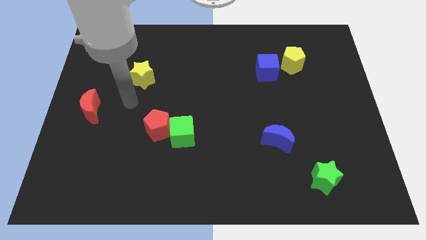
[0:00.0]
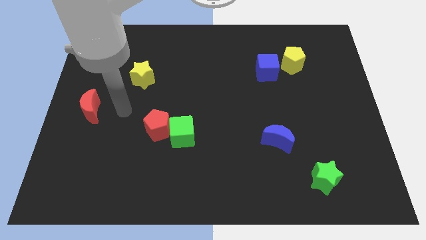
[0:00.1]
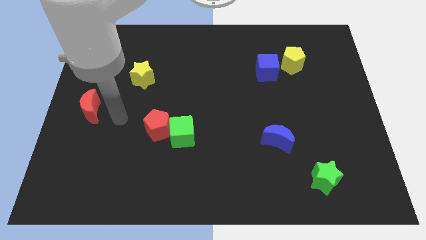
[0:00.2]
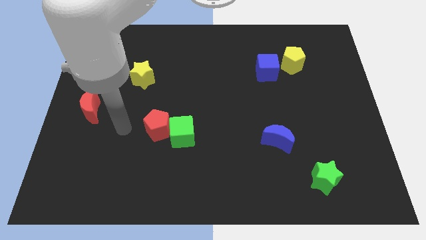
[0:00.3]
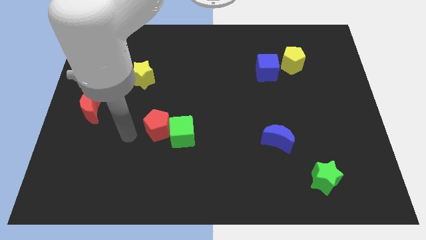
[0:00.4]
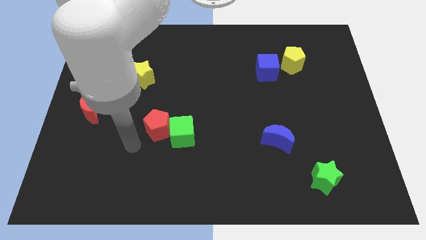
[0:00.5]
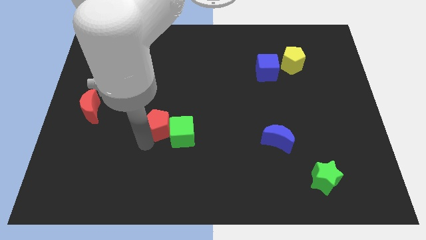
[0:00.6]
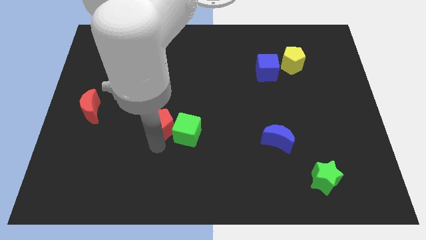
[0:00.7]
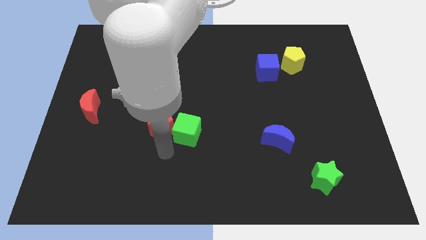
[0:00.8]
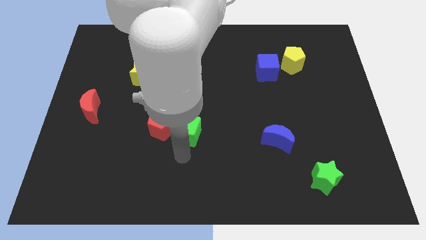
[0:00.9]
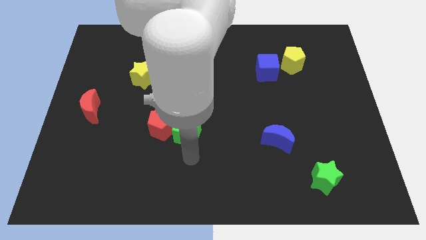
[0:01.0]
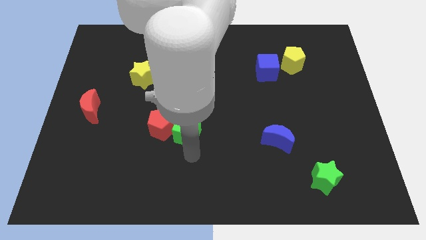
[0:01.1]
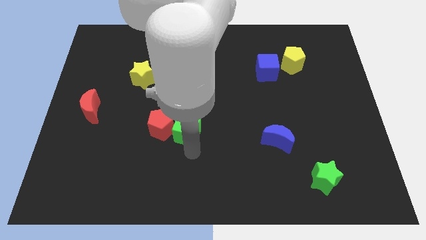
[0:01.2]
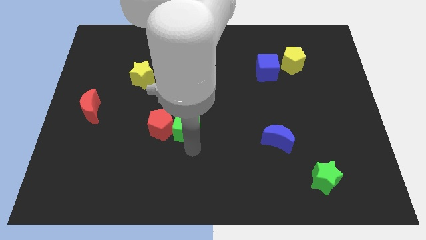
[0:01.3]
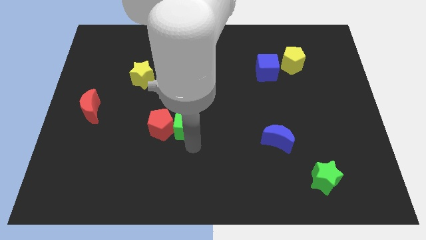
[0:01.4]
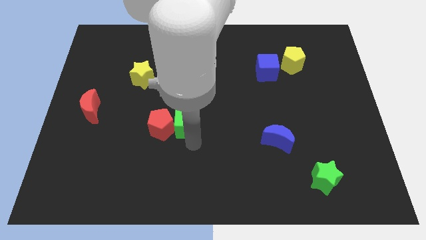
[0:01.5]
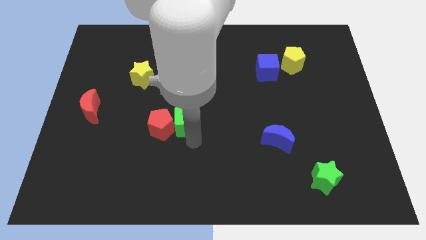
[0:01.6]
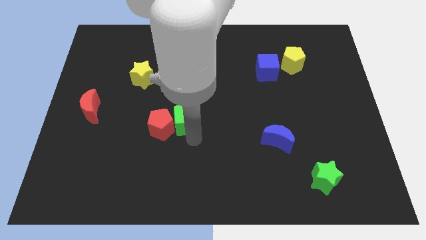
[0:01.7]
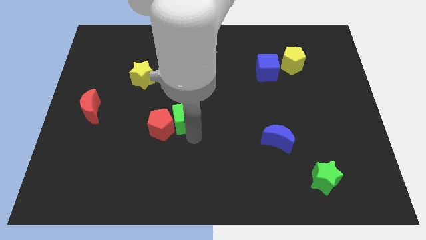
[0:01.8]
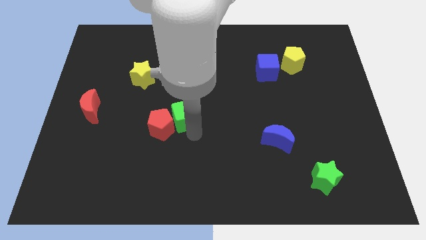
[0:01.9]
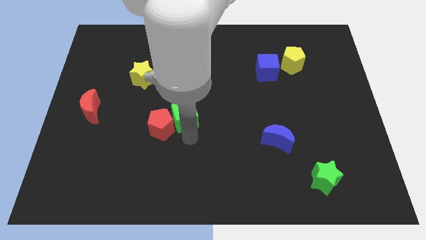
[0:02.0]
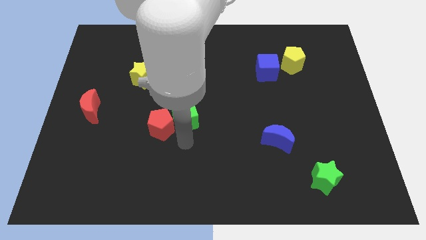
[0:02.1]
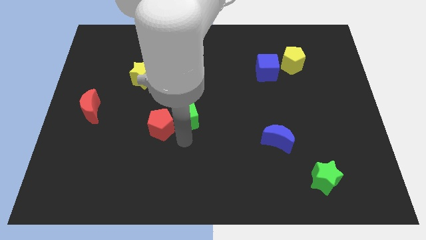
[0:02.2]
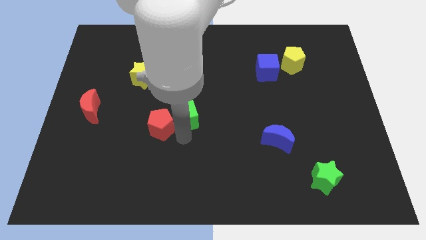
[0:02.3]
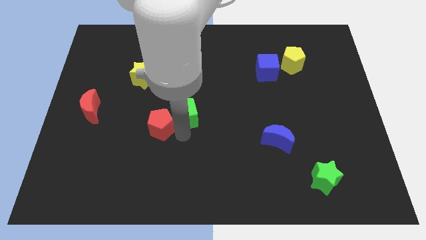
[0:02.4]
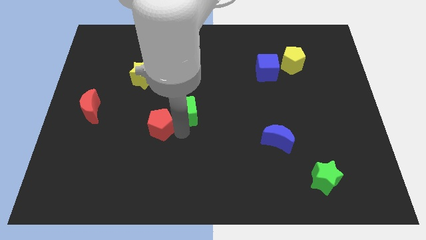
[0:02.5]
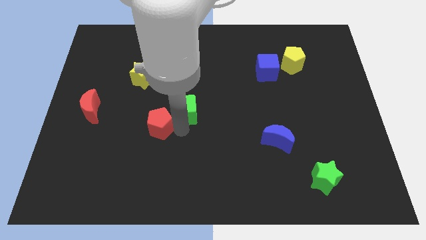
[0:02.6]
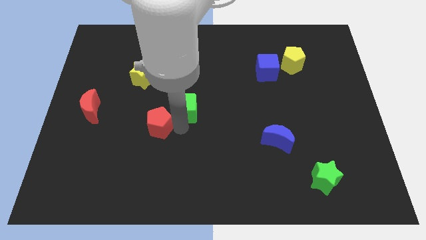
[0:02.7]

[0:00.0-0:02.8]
move the green cube upwards a little

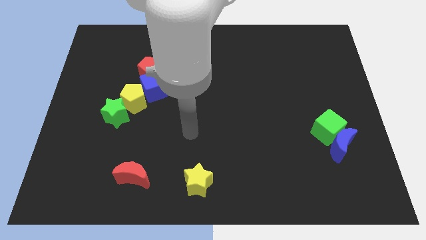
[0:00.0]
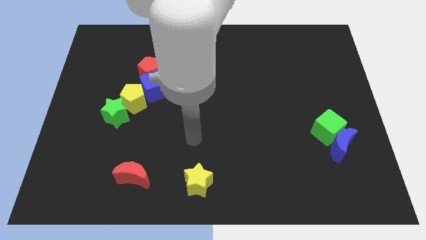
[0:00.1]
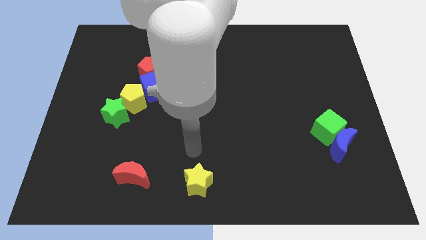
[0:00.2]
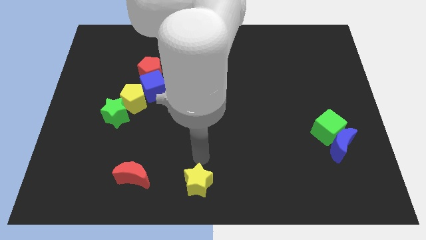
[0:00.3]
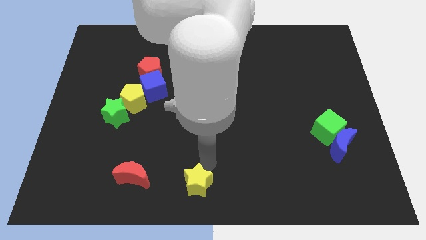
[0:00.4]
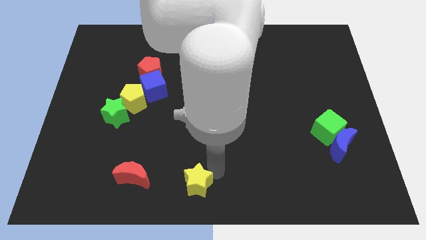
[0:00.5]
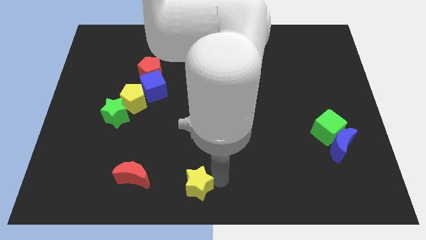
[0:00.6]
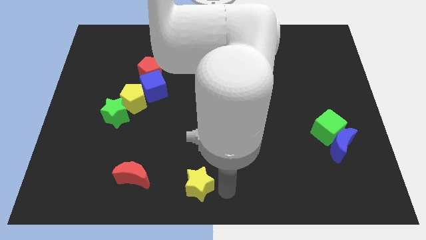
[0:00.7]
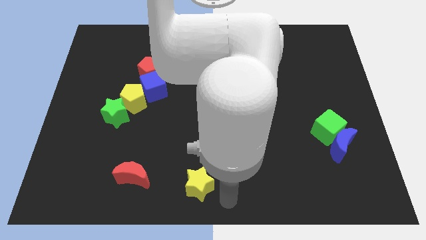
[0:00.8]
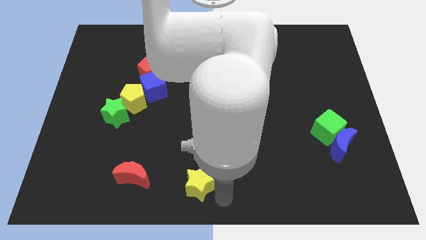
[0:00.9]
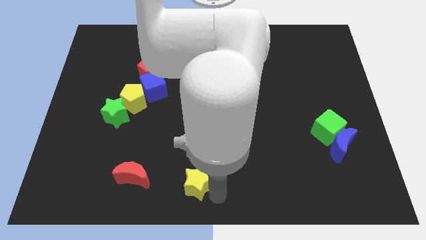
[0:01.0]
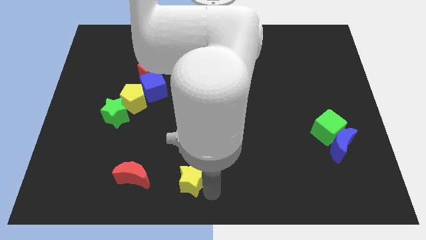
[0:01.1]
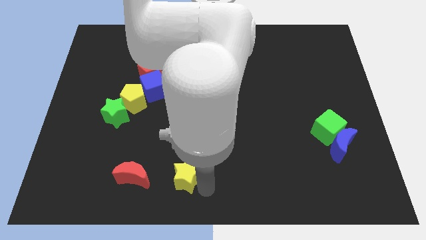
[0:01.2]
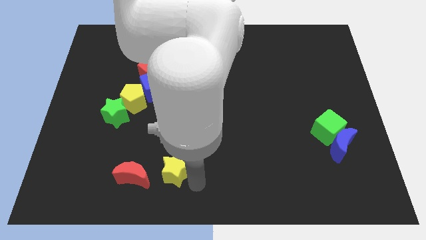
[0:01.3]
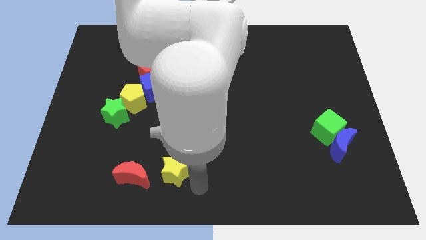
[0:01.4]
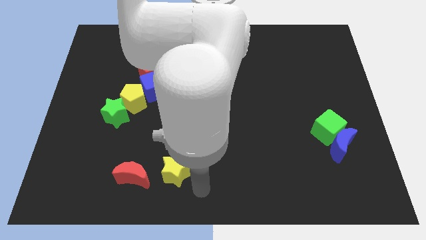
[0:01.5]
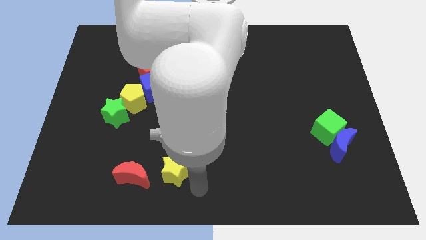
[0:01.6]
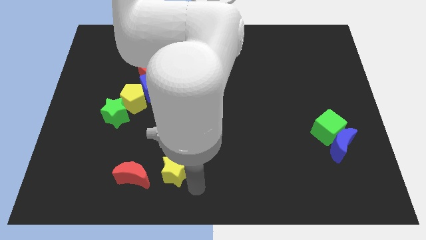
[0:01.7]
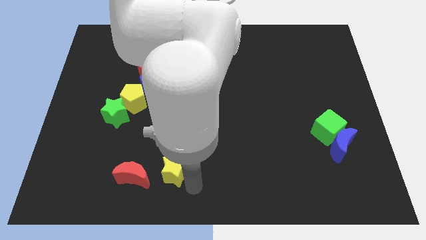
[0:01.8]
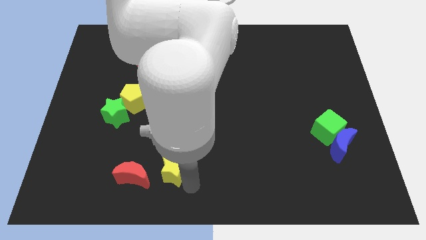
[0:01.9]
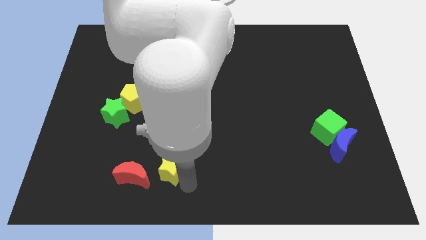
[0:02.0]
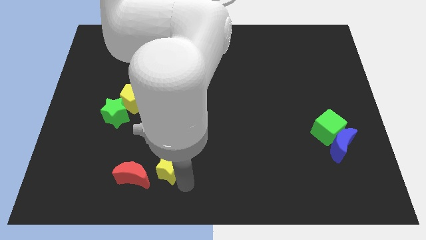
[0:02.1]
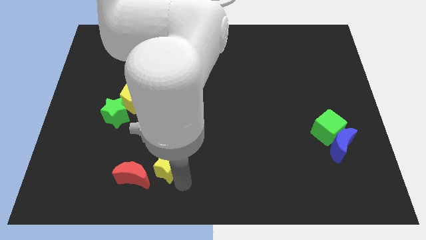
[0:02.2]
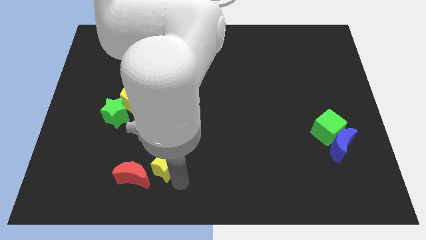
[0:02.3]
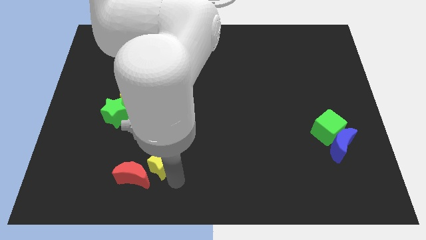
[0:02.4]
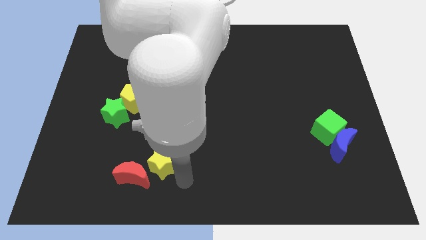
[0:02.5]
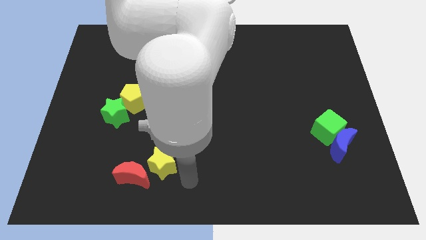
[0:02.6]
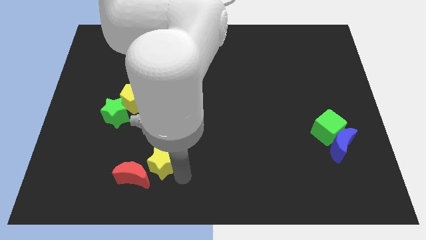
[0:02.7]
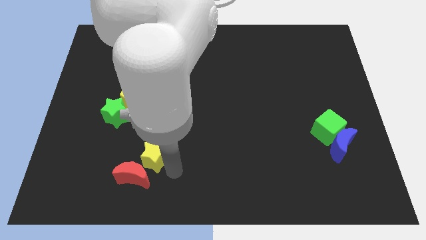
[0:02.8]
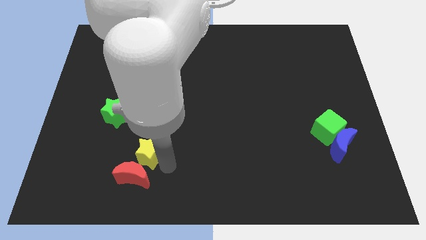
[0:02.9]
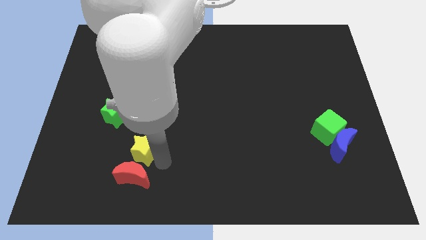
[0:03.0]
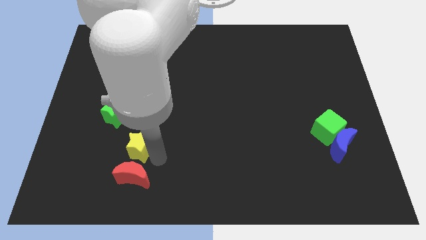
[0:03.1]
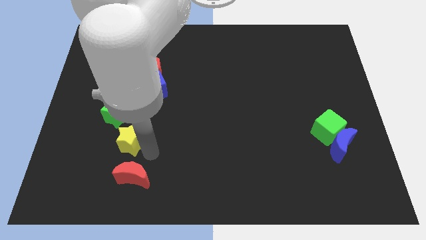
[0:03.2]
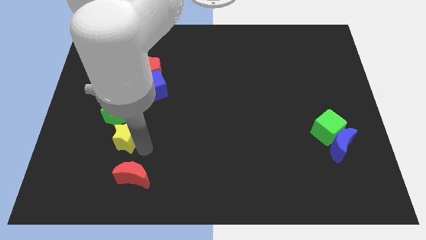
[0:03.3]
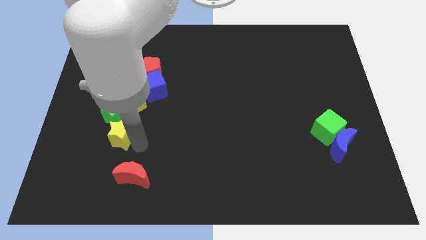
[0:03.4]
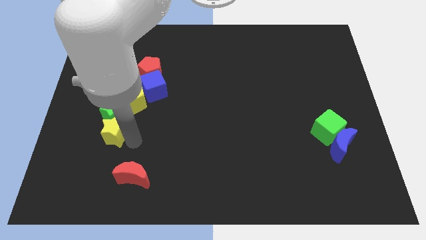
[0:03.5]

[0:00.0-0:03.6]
push the yellow star up and to the left diagonally

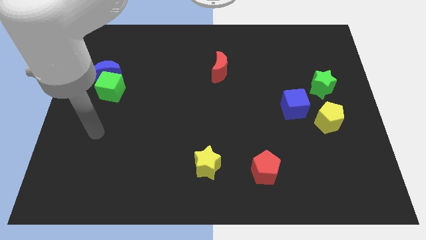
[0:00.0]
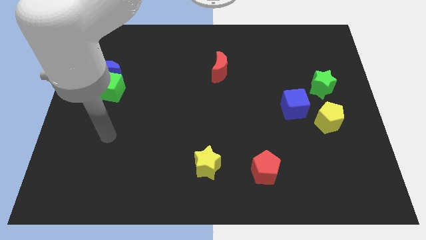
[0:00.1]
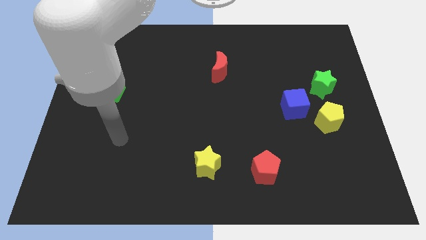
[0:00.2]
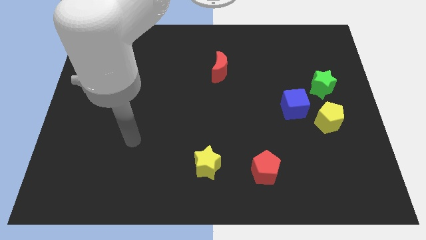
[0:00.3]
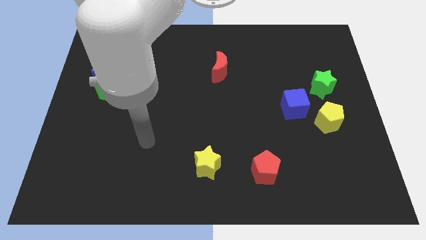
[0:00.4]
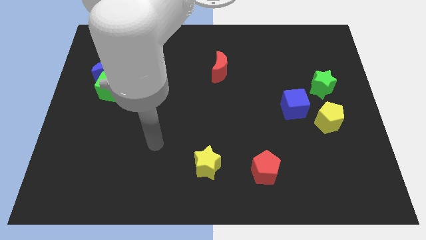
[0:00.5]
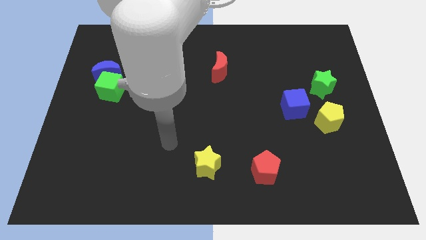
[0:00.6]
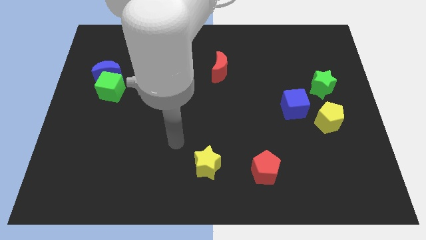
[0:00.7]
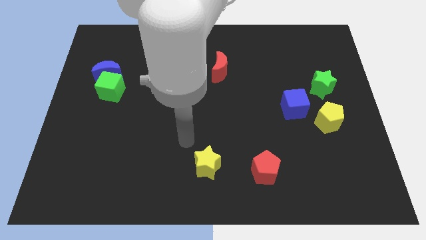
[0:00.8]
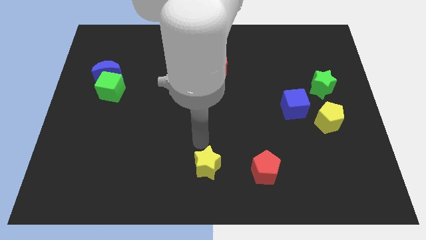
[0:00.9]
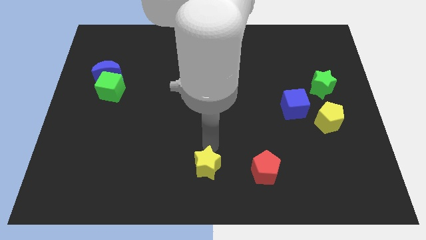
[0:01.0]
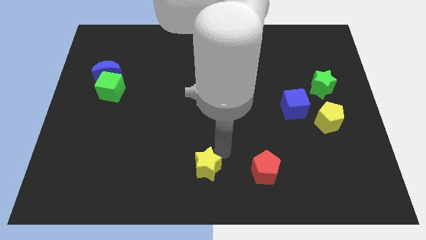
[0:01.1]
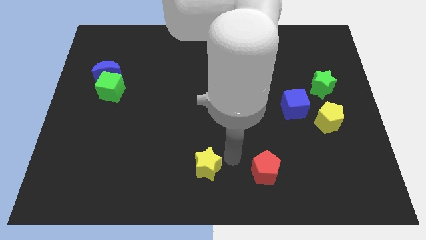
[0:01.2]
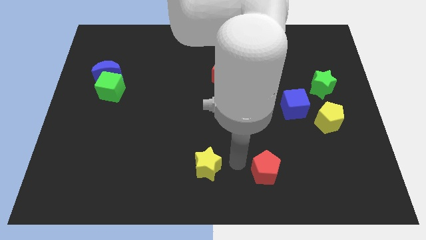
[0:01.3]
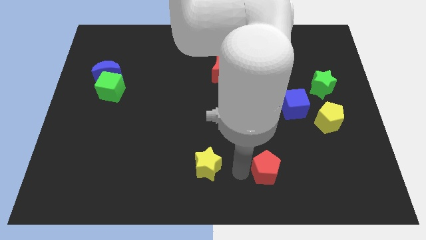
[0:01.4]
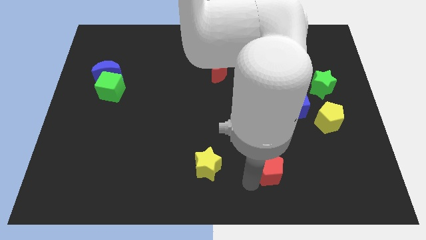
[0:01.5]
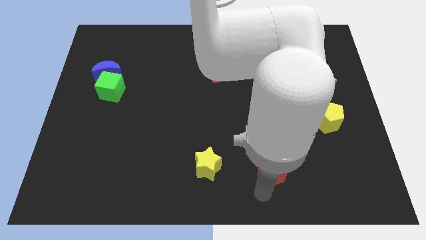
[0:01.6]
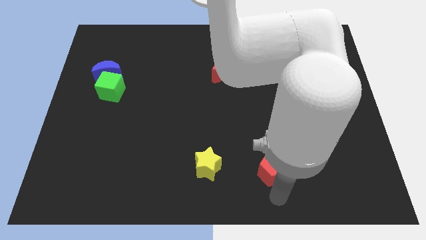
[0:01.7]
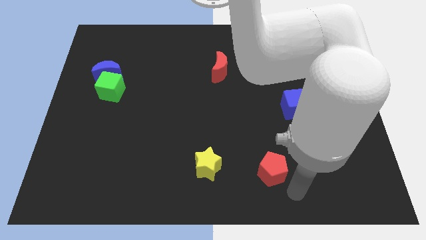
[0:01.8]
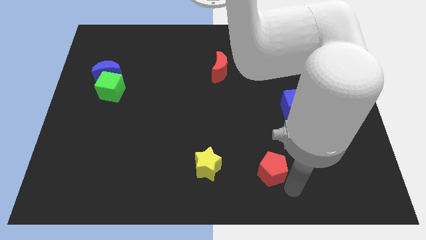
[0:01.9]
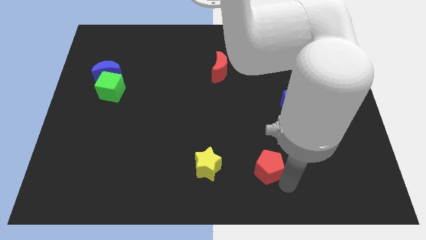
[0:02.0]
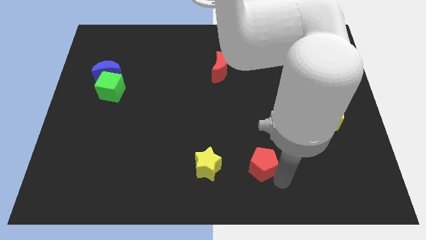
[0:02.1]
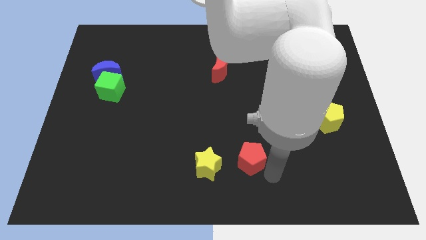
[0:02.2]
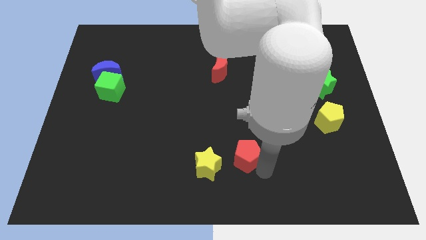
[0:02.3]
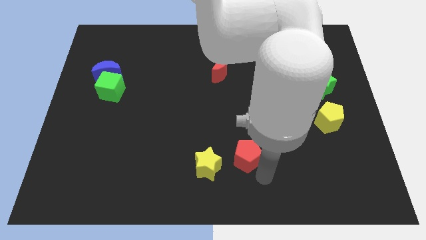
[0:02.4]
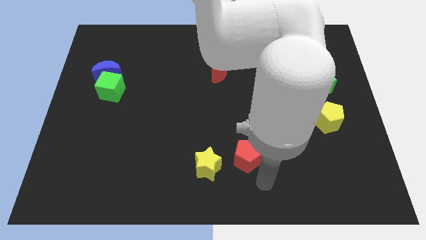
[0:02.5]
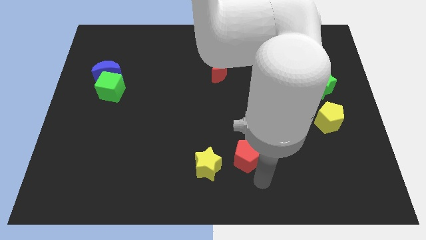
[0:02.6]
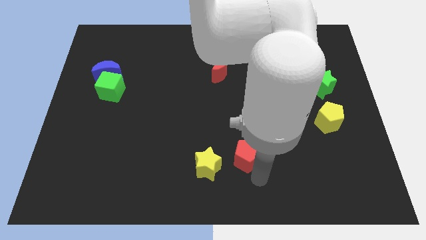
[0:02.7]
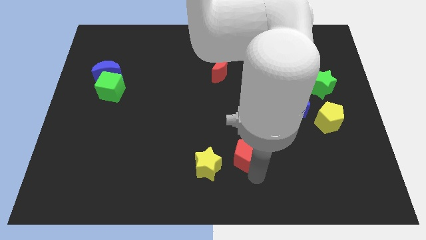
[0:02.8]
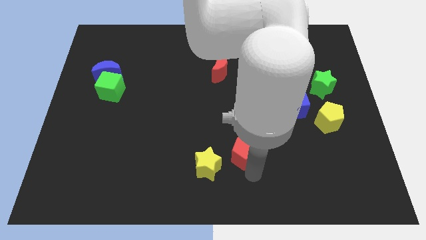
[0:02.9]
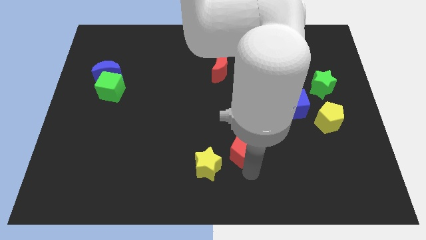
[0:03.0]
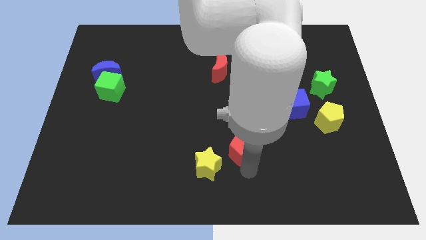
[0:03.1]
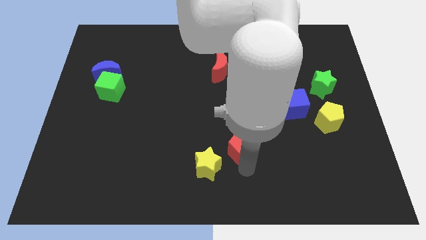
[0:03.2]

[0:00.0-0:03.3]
move the red pentagon diagonally upwards and left somewhat
